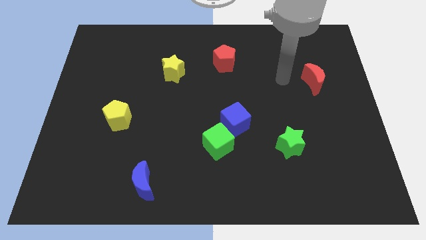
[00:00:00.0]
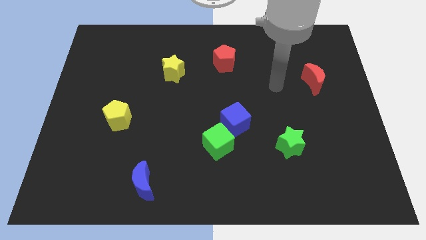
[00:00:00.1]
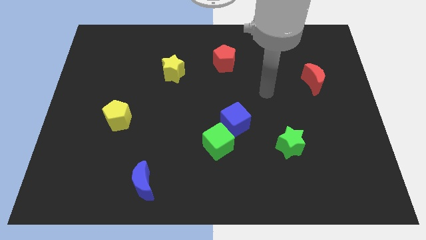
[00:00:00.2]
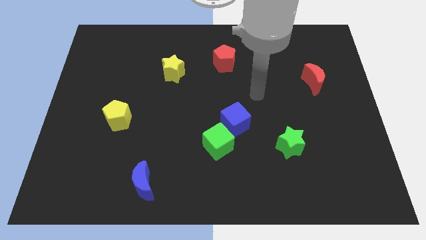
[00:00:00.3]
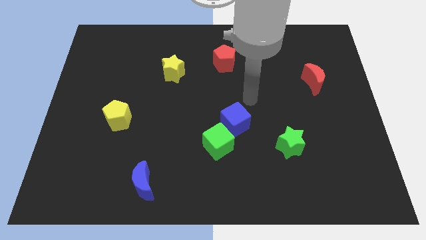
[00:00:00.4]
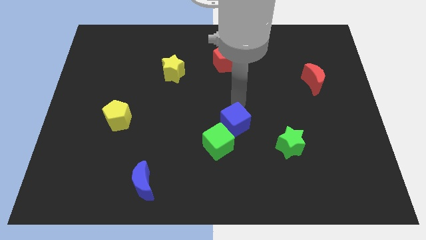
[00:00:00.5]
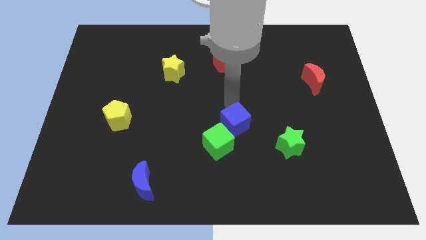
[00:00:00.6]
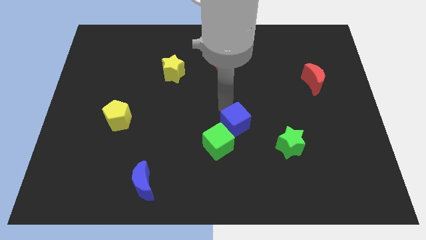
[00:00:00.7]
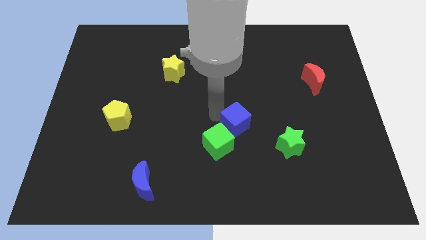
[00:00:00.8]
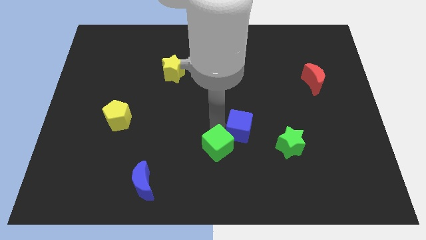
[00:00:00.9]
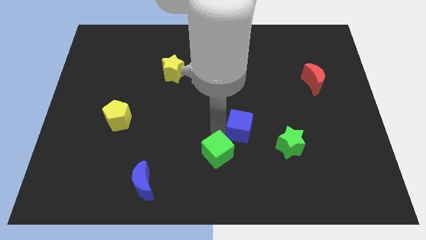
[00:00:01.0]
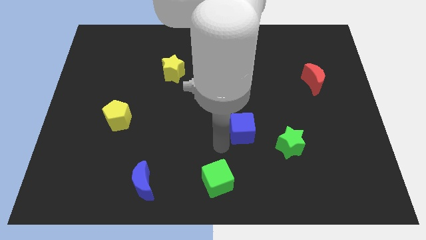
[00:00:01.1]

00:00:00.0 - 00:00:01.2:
pull the blue cube apart from the green cube

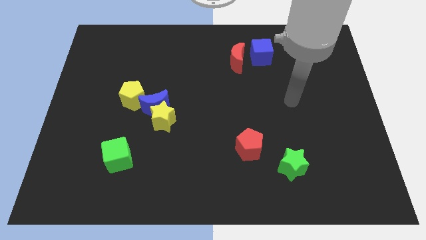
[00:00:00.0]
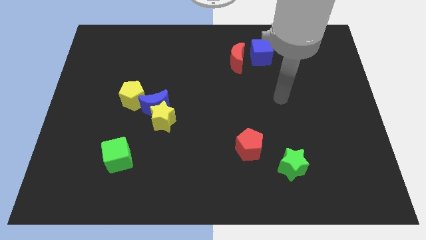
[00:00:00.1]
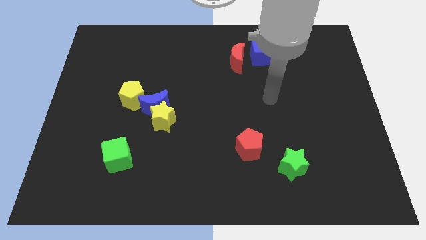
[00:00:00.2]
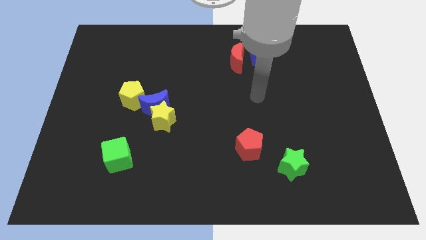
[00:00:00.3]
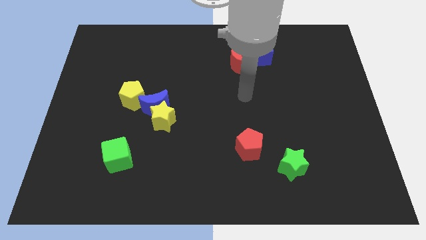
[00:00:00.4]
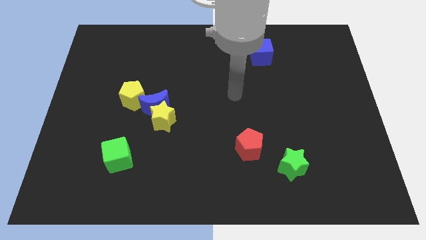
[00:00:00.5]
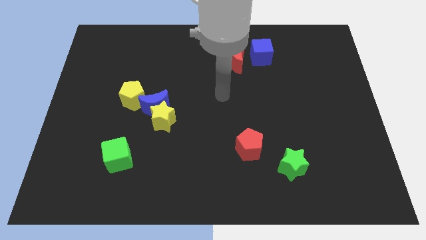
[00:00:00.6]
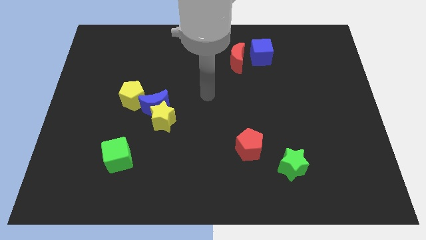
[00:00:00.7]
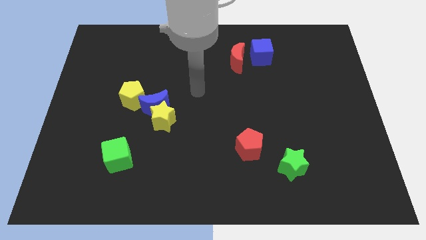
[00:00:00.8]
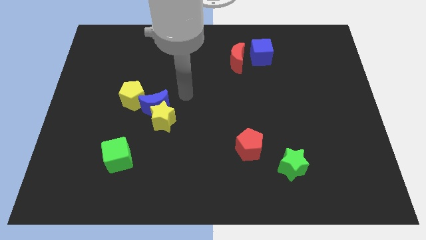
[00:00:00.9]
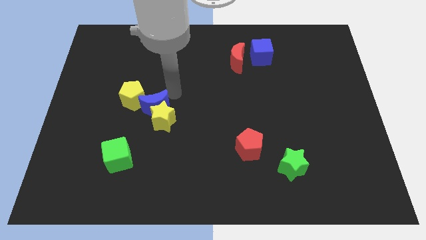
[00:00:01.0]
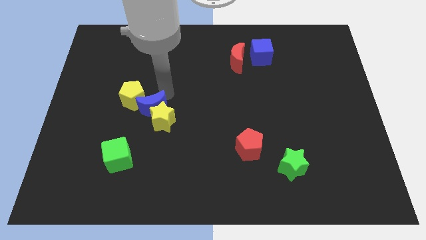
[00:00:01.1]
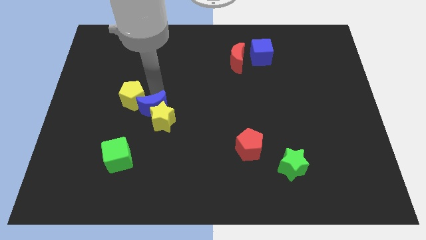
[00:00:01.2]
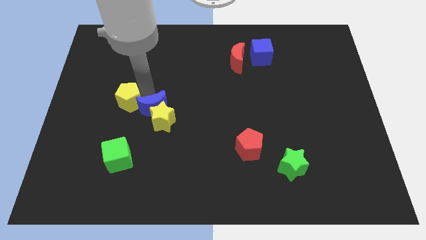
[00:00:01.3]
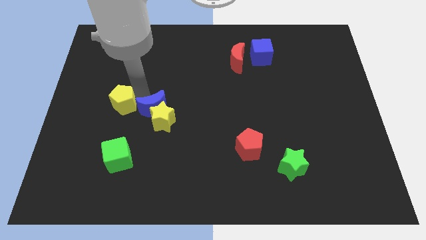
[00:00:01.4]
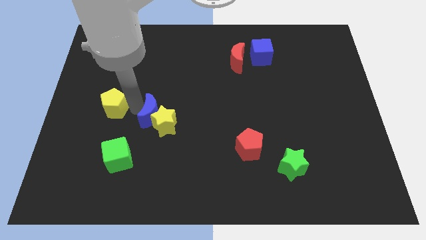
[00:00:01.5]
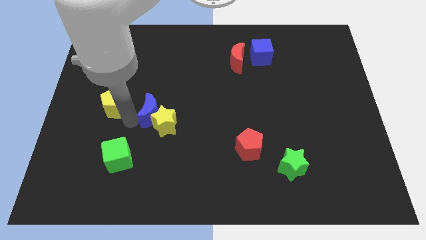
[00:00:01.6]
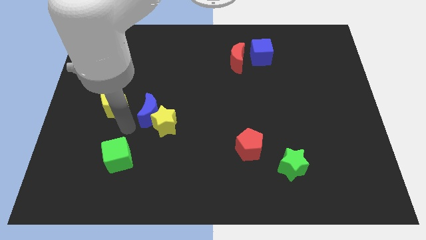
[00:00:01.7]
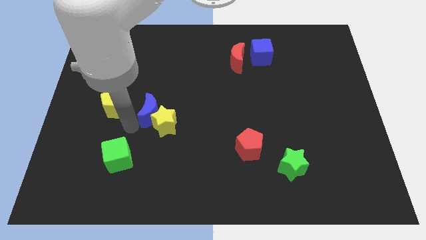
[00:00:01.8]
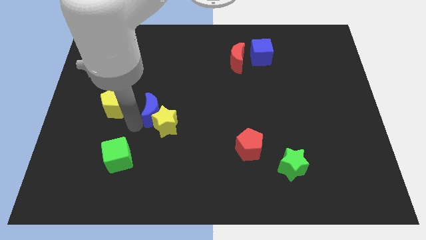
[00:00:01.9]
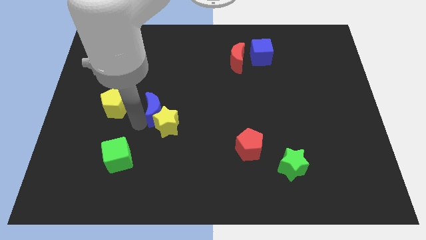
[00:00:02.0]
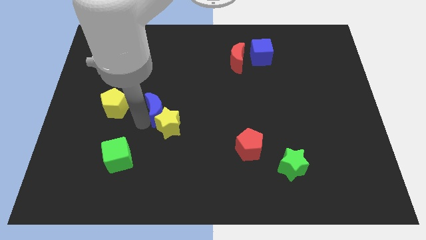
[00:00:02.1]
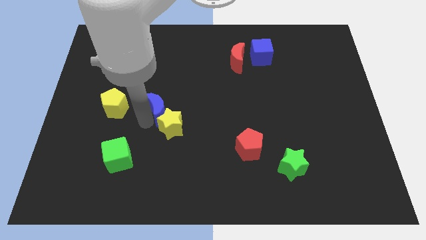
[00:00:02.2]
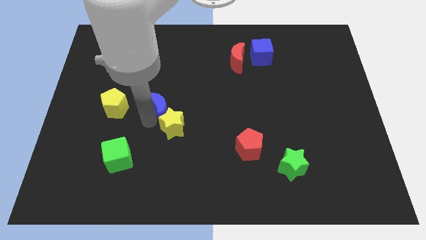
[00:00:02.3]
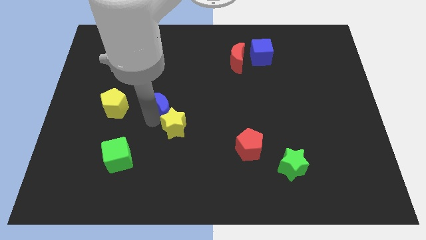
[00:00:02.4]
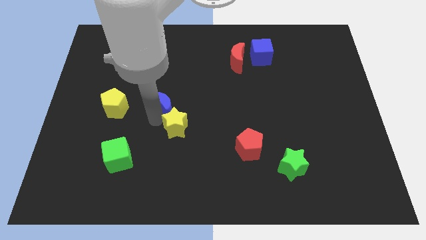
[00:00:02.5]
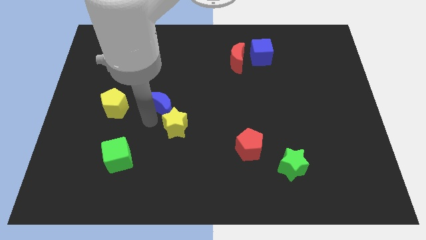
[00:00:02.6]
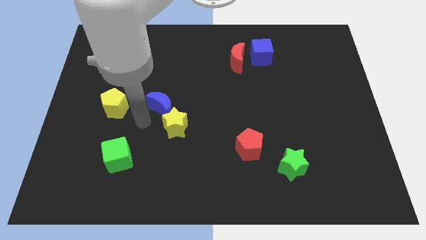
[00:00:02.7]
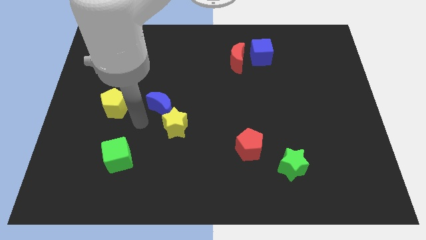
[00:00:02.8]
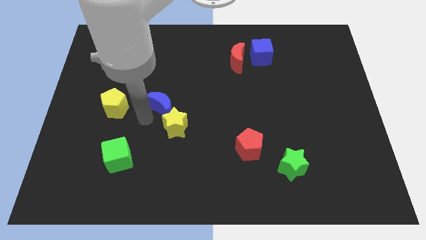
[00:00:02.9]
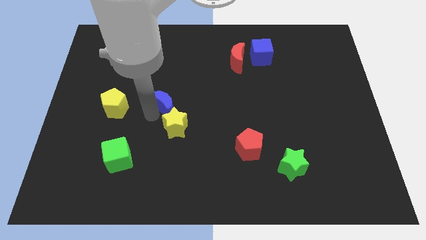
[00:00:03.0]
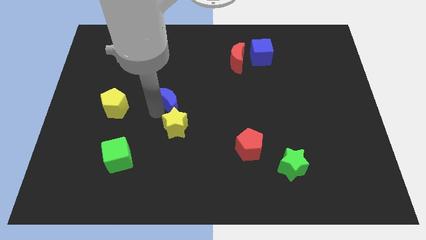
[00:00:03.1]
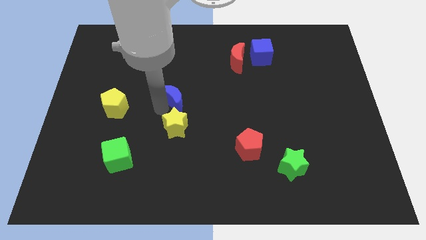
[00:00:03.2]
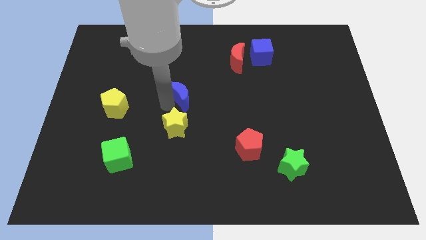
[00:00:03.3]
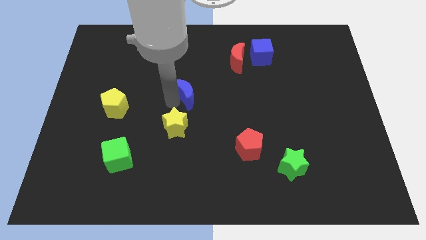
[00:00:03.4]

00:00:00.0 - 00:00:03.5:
pull the blue moon apart from the yellow star and yellow pentagon

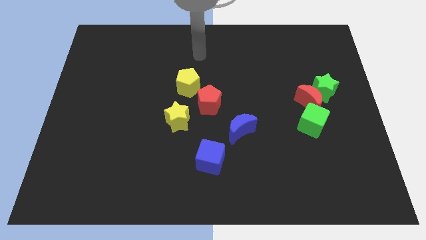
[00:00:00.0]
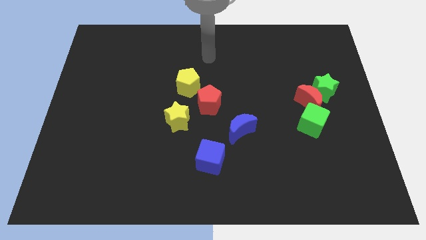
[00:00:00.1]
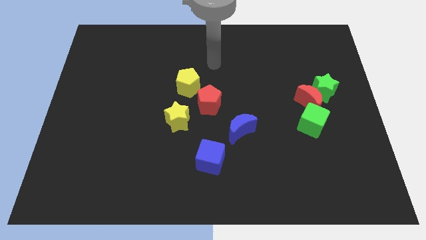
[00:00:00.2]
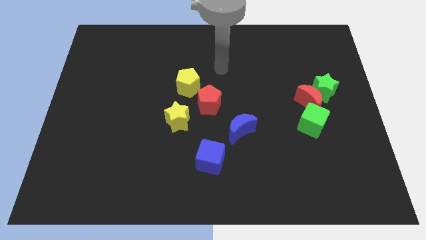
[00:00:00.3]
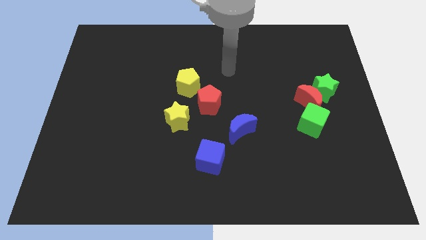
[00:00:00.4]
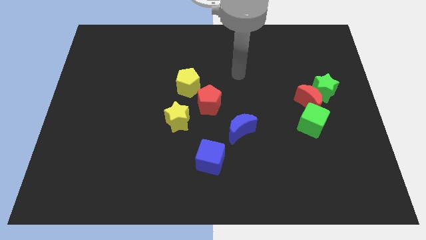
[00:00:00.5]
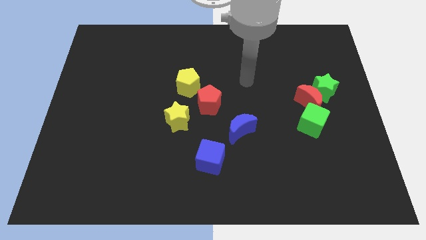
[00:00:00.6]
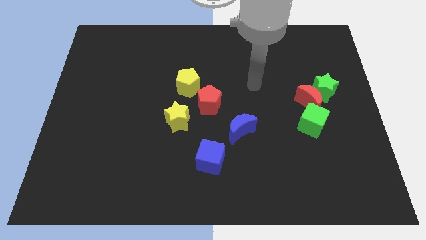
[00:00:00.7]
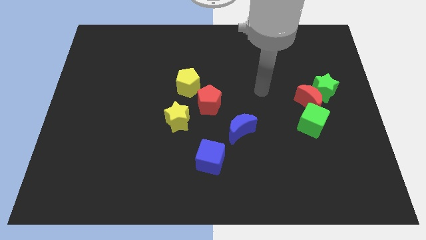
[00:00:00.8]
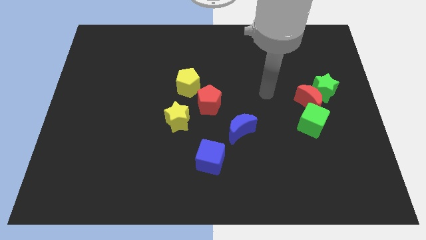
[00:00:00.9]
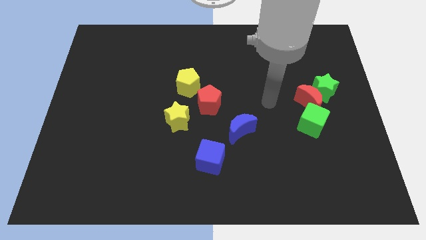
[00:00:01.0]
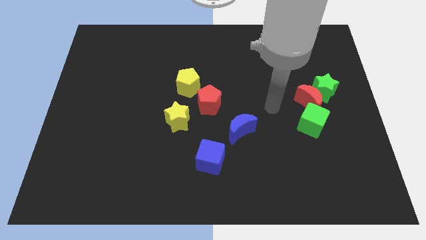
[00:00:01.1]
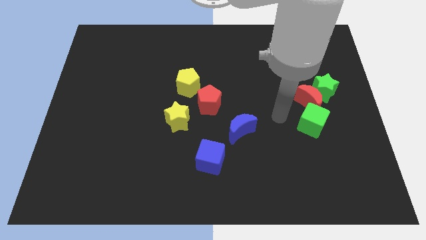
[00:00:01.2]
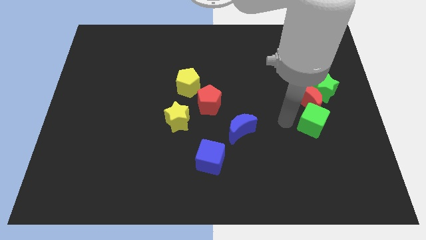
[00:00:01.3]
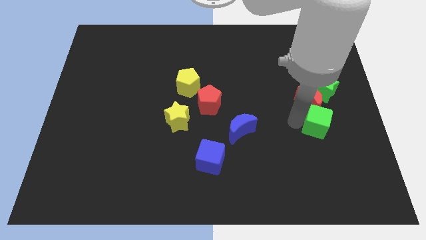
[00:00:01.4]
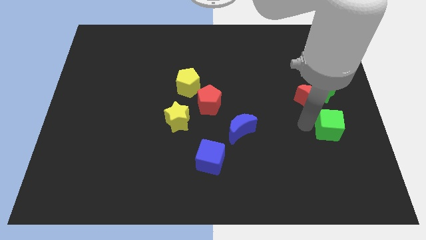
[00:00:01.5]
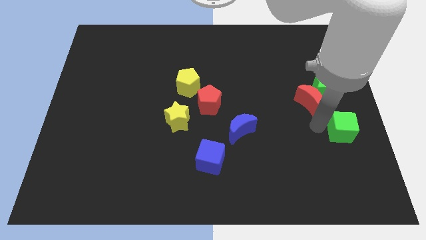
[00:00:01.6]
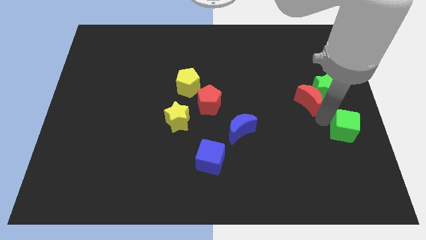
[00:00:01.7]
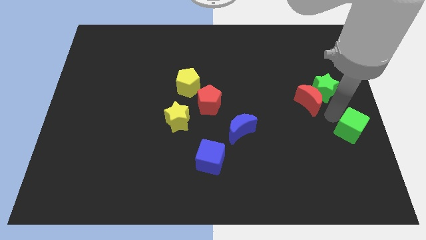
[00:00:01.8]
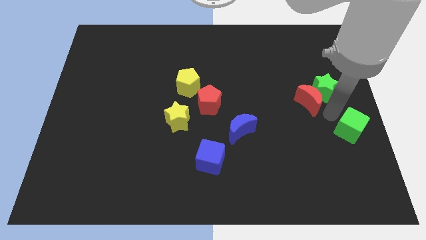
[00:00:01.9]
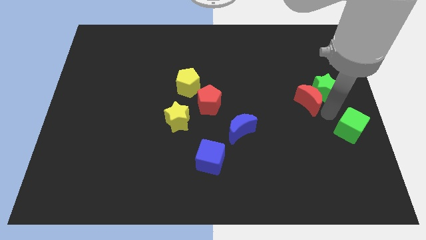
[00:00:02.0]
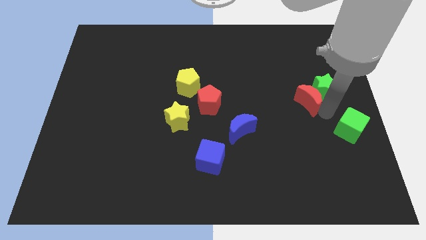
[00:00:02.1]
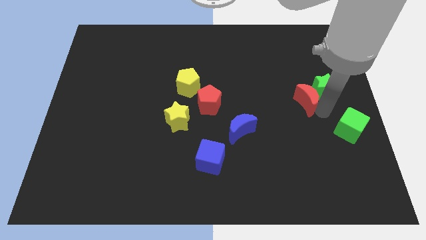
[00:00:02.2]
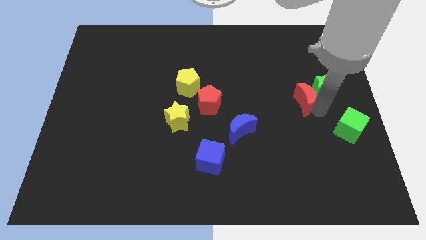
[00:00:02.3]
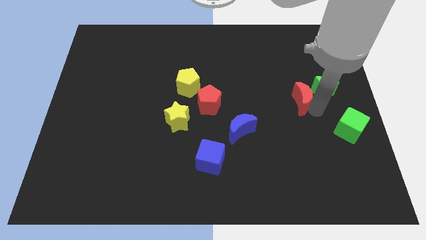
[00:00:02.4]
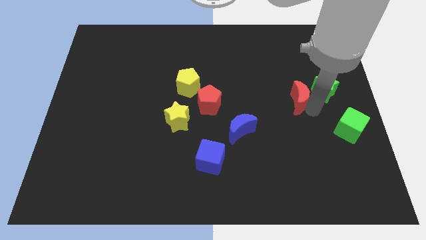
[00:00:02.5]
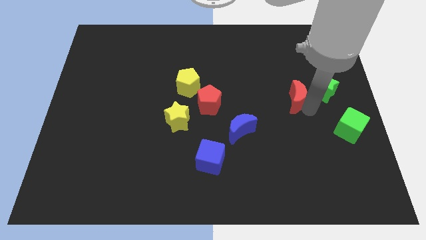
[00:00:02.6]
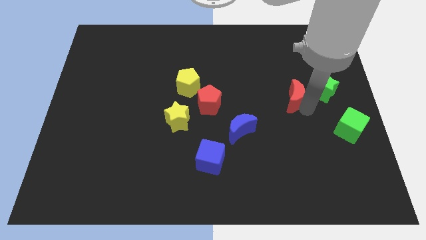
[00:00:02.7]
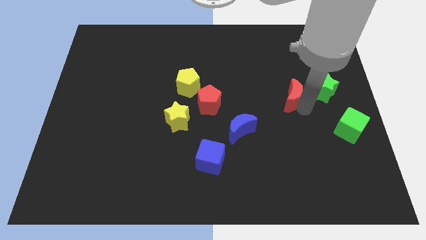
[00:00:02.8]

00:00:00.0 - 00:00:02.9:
pull the red moon apart from the green star and green cube

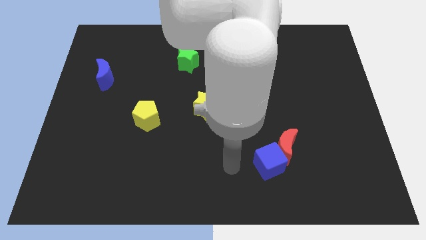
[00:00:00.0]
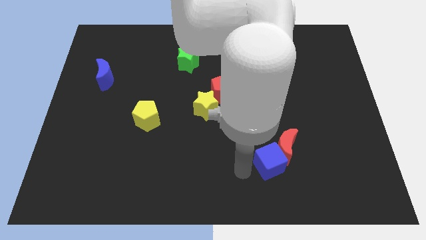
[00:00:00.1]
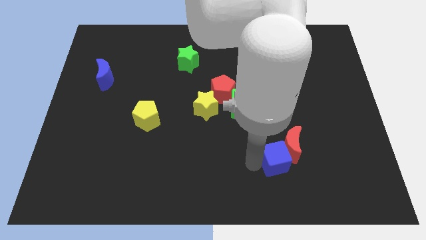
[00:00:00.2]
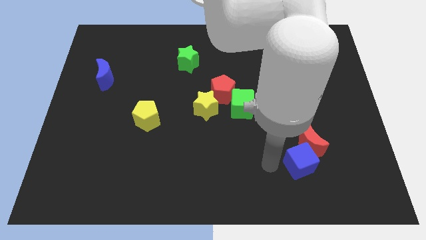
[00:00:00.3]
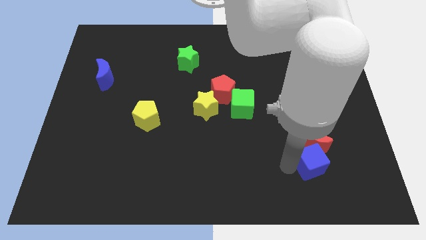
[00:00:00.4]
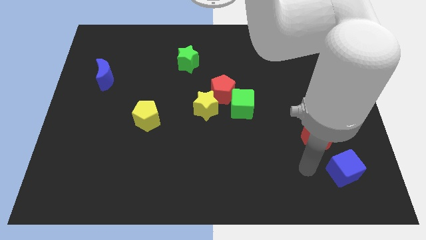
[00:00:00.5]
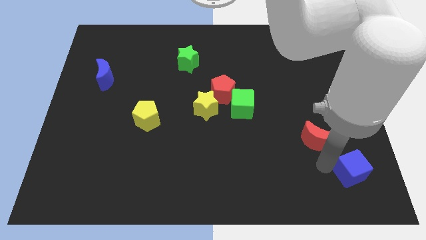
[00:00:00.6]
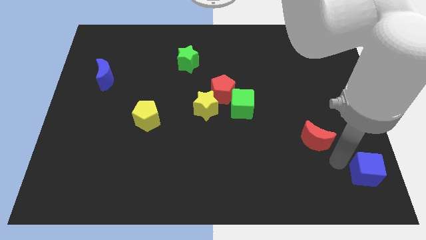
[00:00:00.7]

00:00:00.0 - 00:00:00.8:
separate the red moon from the blue cube

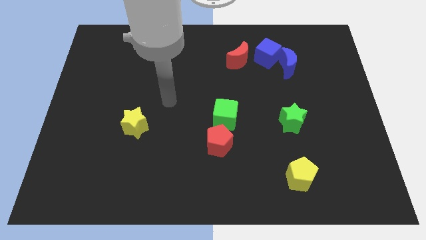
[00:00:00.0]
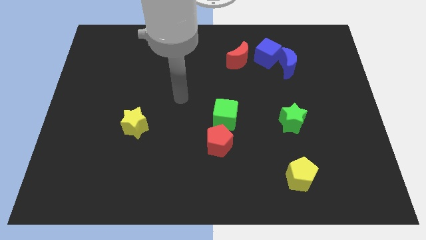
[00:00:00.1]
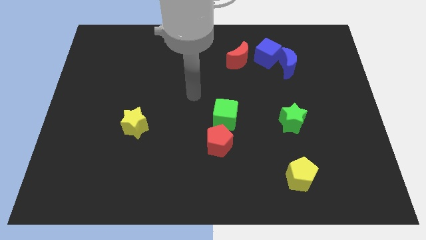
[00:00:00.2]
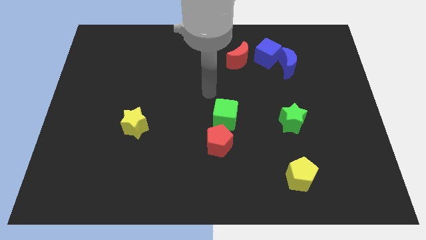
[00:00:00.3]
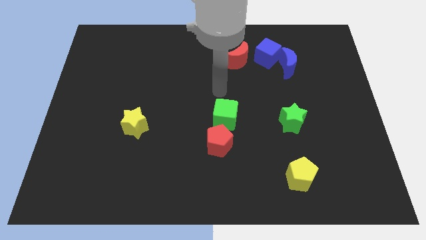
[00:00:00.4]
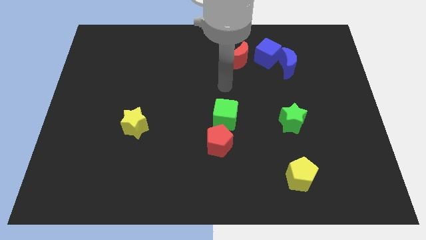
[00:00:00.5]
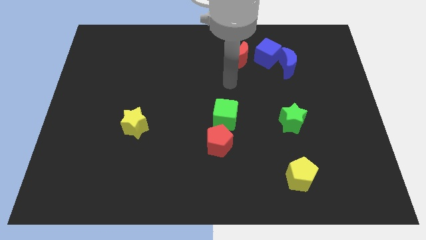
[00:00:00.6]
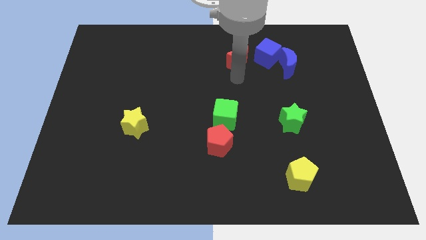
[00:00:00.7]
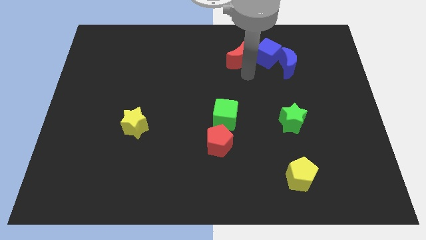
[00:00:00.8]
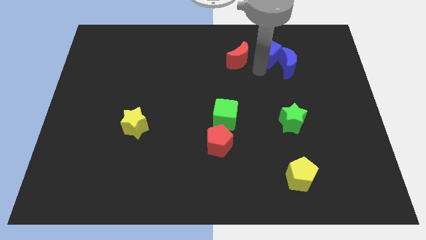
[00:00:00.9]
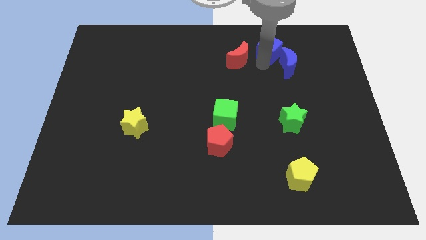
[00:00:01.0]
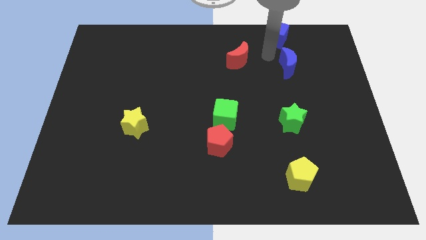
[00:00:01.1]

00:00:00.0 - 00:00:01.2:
separate the blue moon from the blue cube
